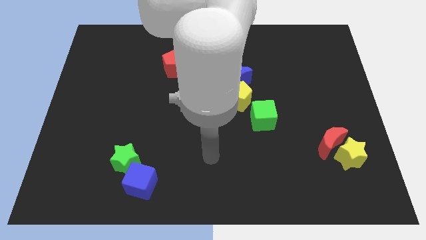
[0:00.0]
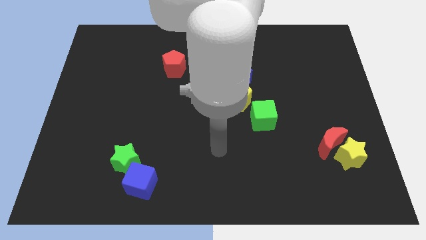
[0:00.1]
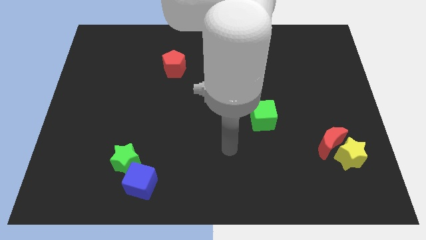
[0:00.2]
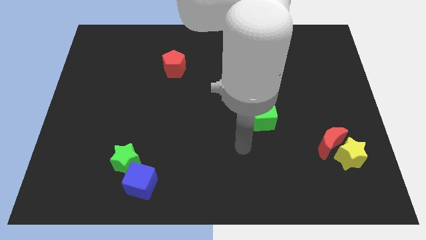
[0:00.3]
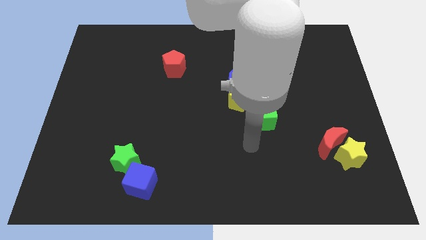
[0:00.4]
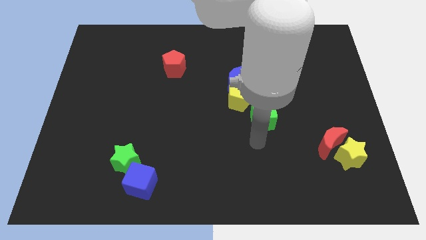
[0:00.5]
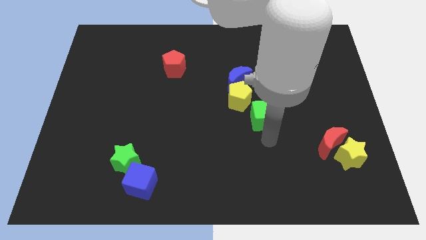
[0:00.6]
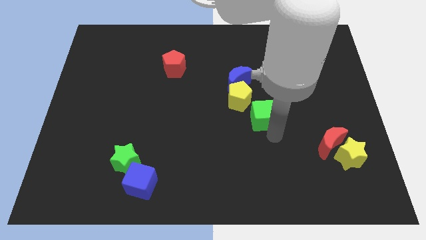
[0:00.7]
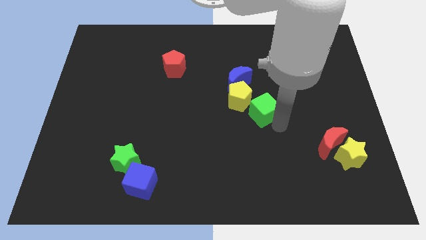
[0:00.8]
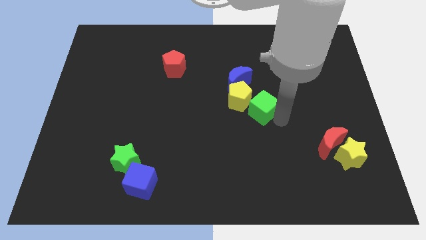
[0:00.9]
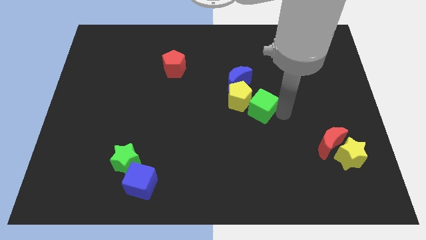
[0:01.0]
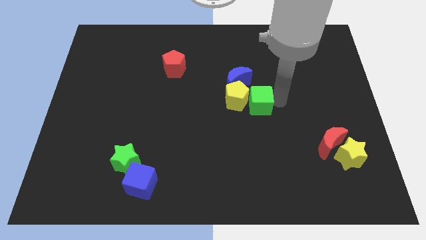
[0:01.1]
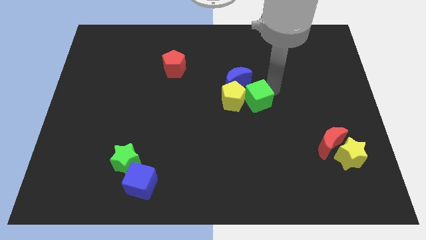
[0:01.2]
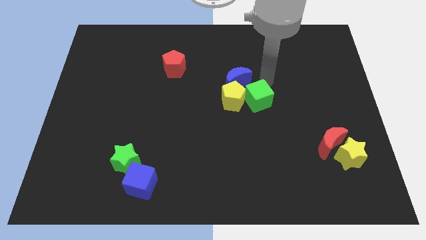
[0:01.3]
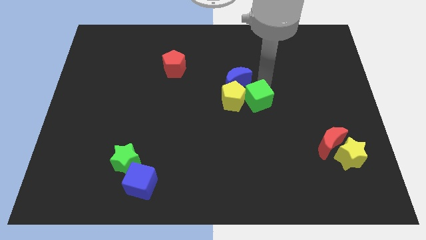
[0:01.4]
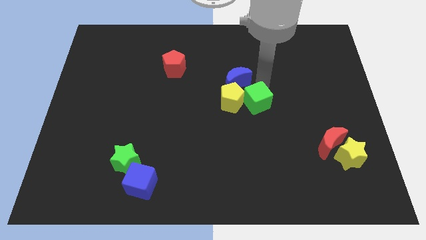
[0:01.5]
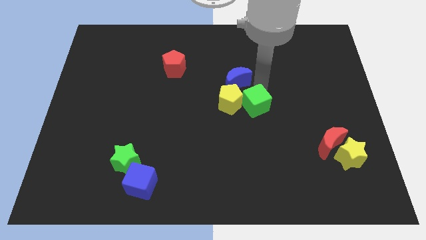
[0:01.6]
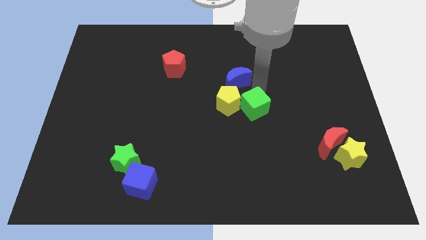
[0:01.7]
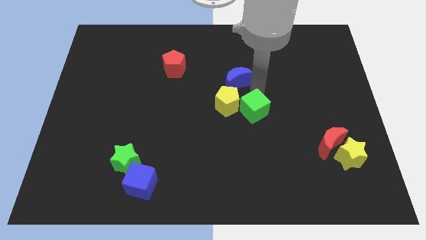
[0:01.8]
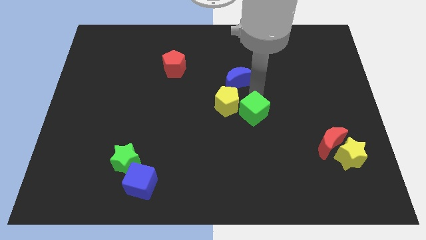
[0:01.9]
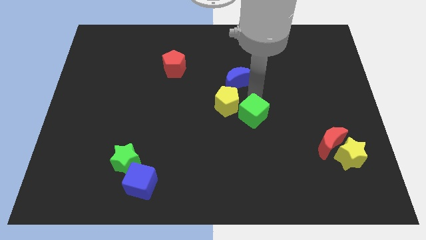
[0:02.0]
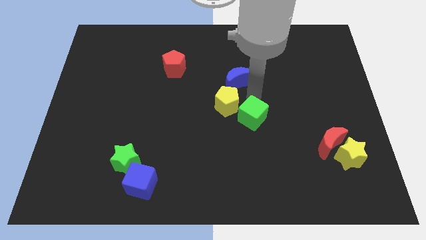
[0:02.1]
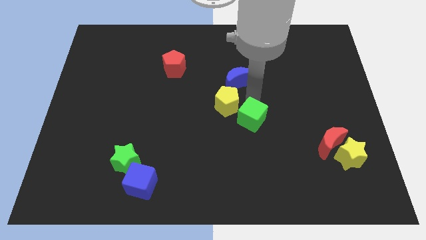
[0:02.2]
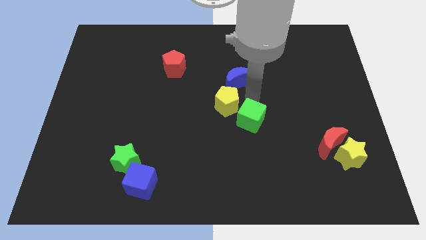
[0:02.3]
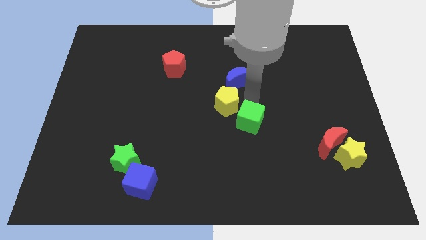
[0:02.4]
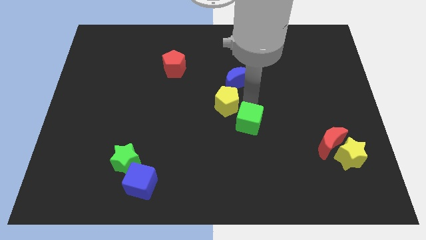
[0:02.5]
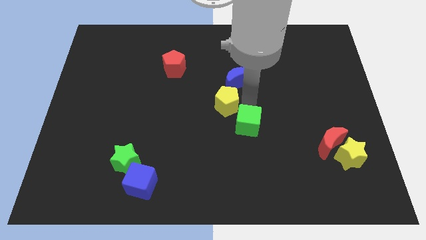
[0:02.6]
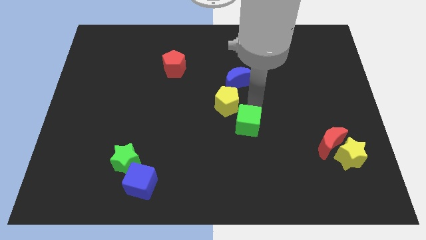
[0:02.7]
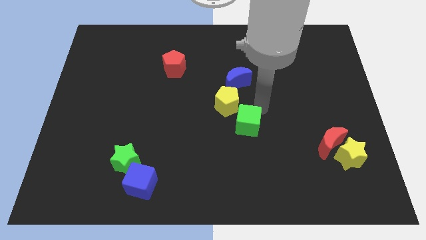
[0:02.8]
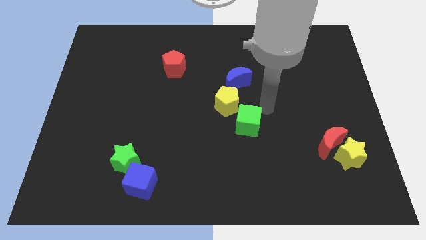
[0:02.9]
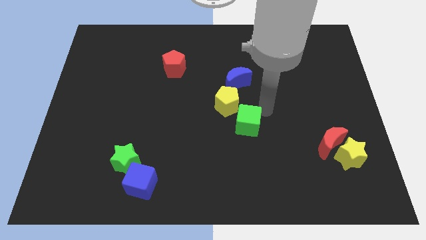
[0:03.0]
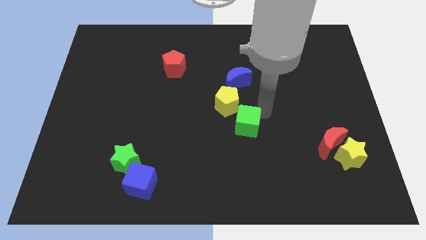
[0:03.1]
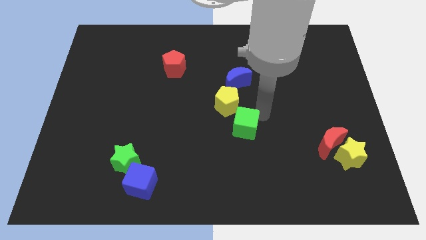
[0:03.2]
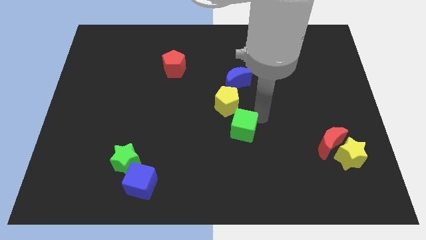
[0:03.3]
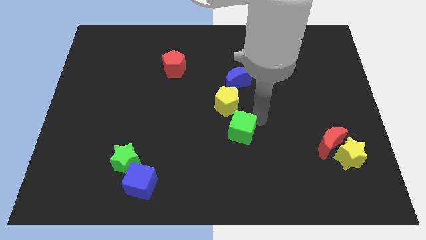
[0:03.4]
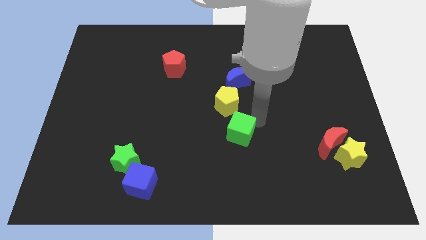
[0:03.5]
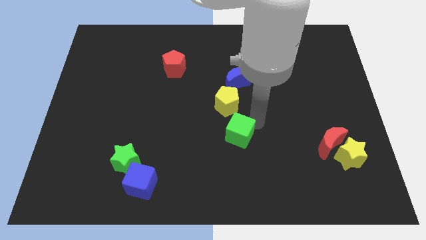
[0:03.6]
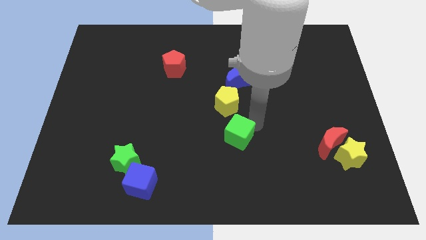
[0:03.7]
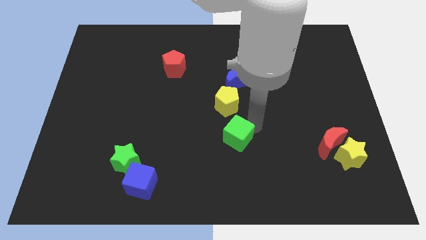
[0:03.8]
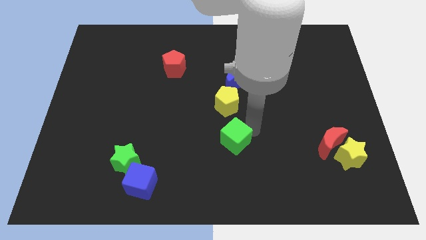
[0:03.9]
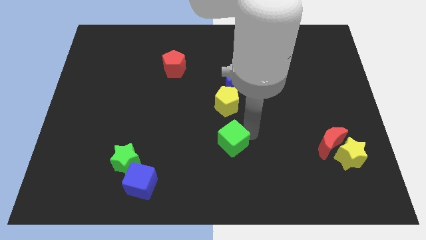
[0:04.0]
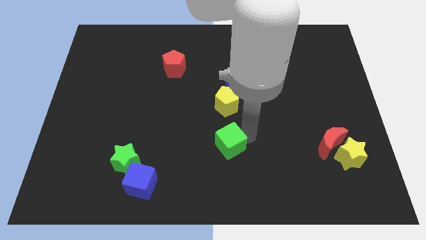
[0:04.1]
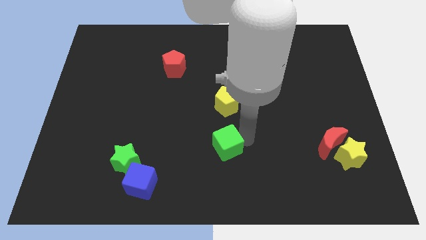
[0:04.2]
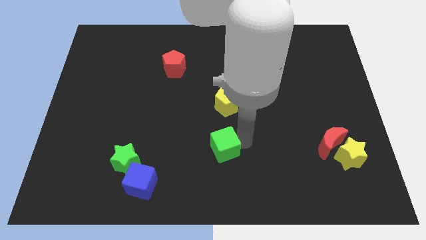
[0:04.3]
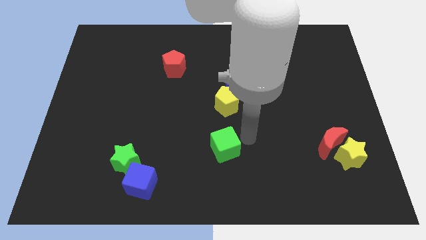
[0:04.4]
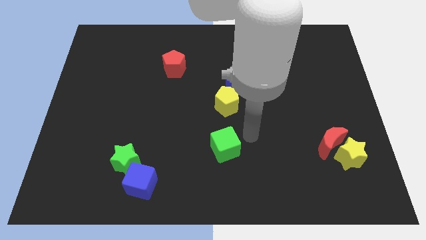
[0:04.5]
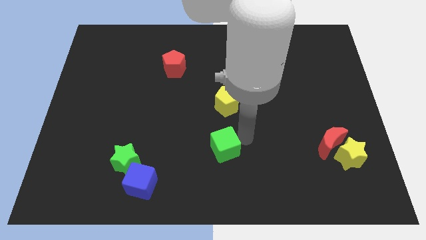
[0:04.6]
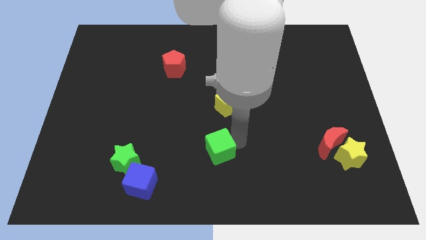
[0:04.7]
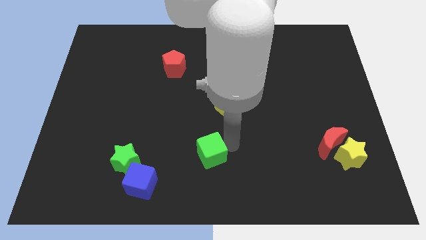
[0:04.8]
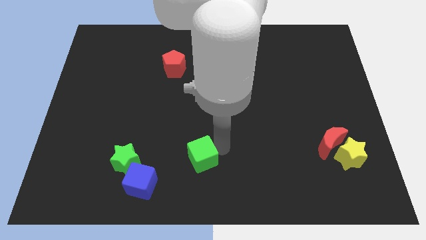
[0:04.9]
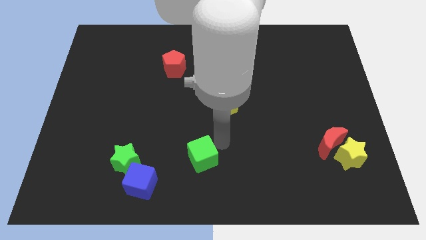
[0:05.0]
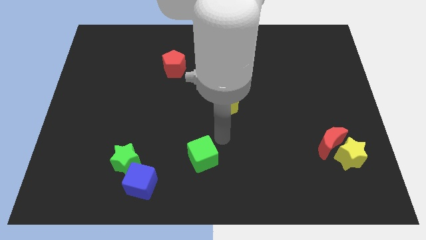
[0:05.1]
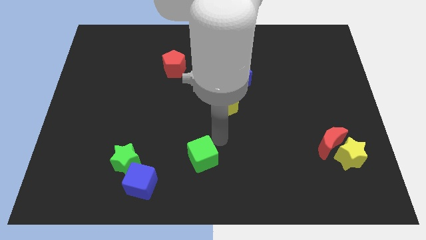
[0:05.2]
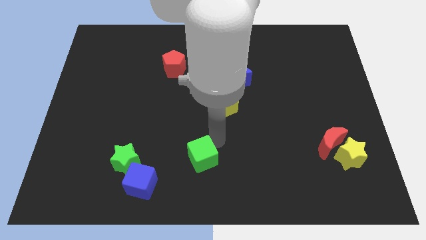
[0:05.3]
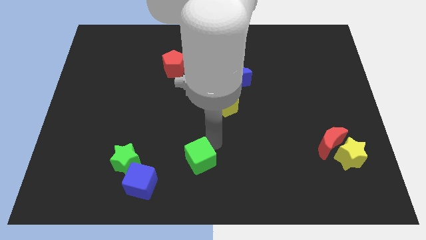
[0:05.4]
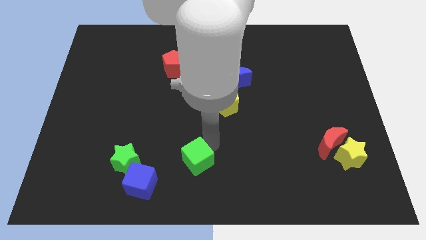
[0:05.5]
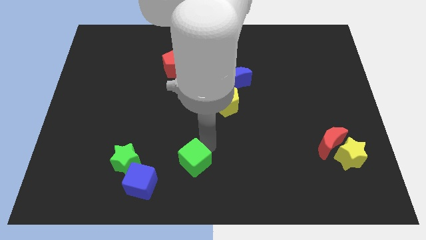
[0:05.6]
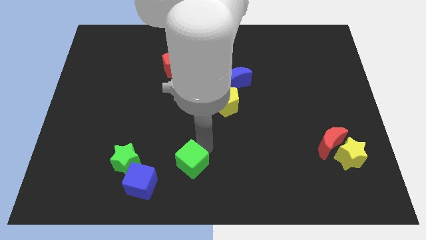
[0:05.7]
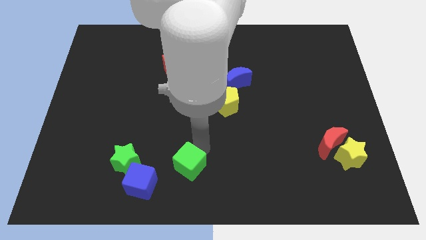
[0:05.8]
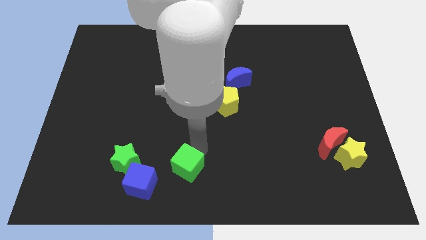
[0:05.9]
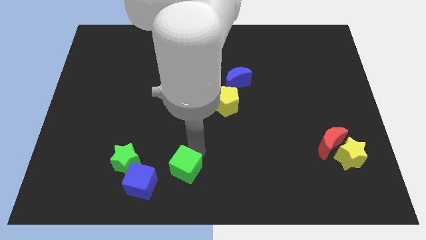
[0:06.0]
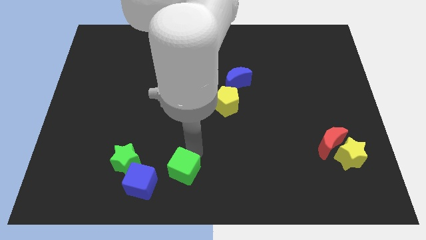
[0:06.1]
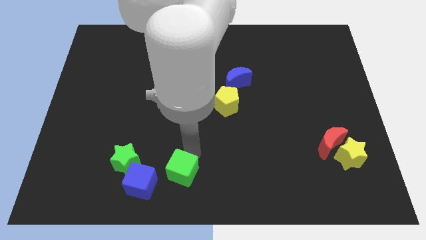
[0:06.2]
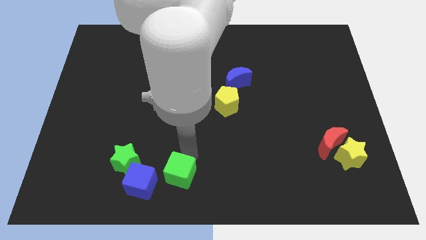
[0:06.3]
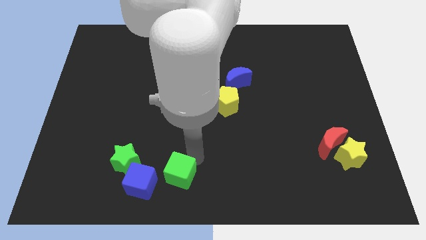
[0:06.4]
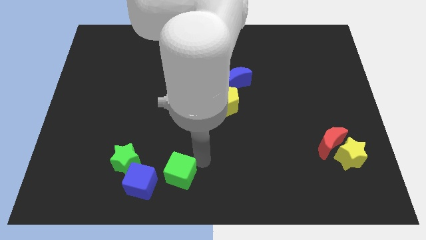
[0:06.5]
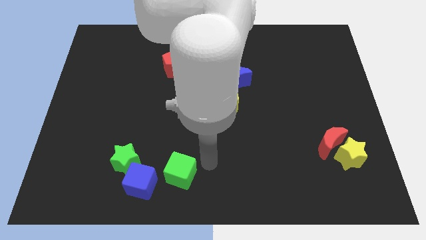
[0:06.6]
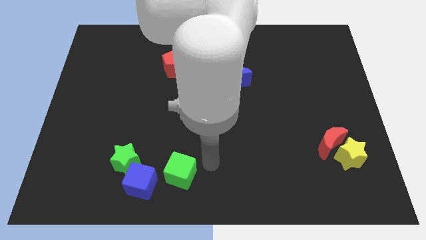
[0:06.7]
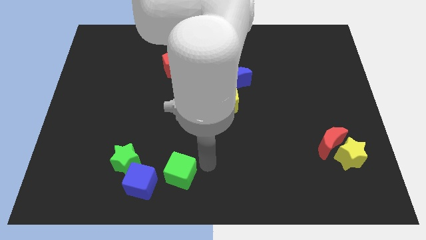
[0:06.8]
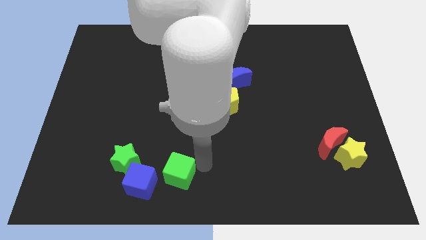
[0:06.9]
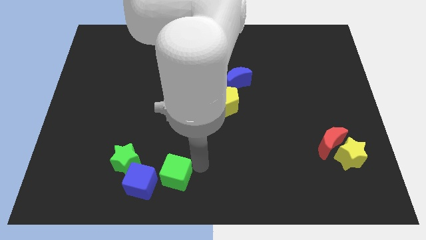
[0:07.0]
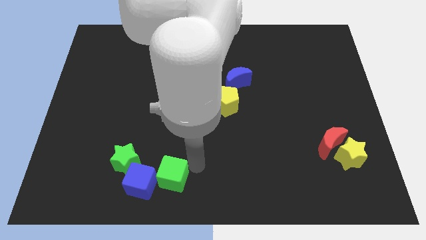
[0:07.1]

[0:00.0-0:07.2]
put the green cube to the bottom right side of the green star
